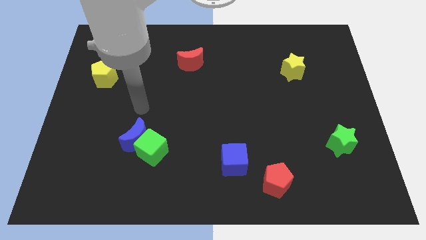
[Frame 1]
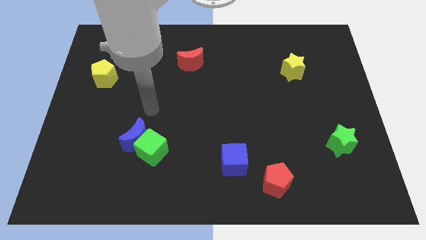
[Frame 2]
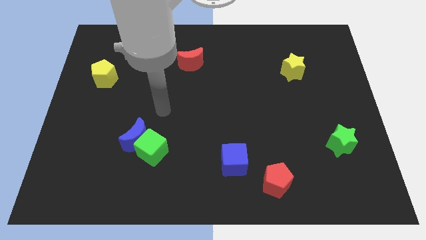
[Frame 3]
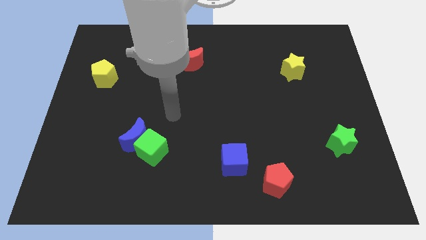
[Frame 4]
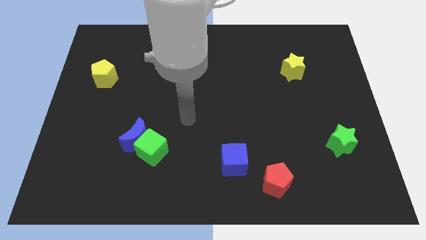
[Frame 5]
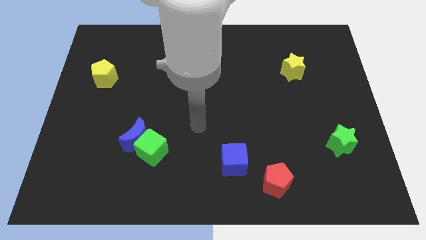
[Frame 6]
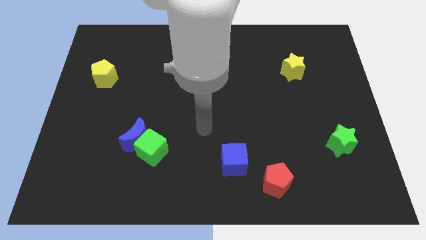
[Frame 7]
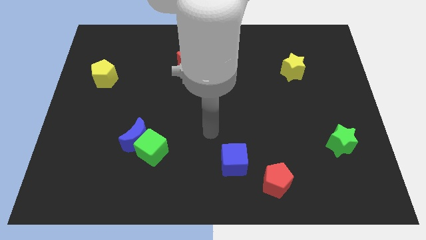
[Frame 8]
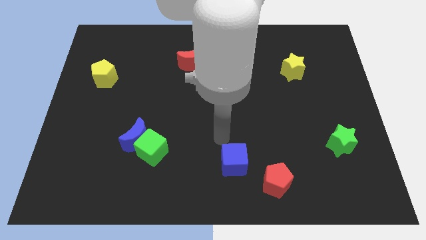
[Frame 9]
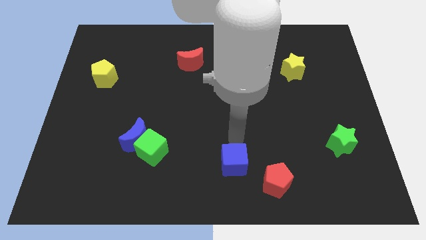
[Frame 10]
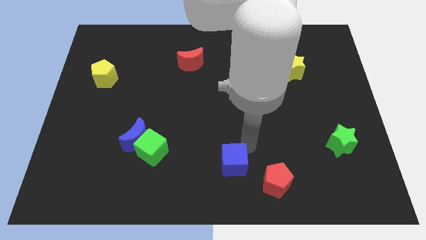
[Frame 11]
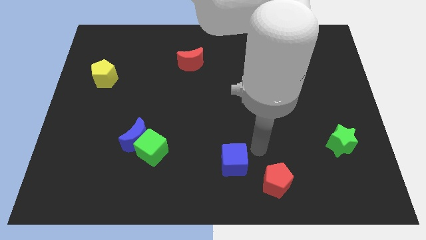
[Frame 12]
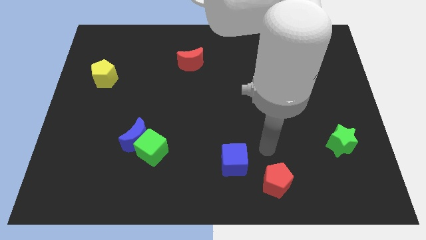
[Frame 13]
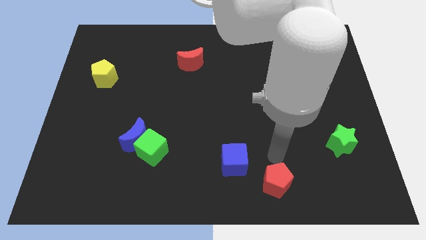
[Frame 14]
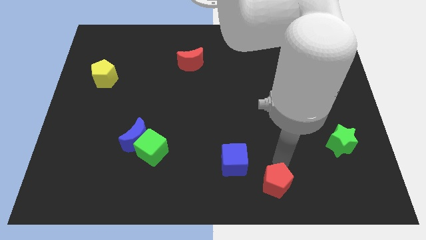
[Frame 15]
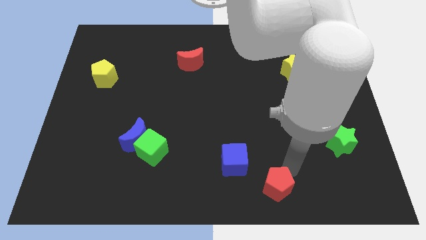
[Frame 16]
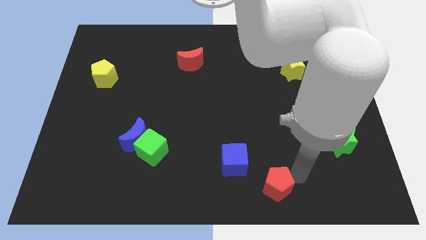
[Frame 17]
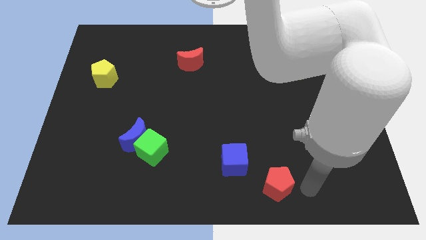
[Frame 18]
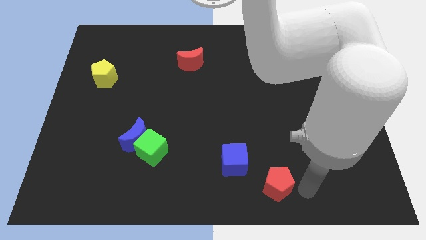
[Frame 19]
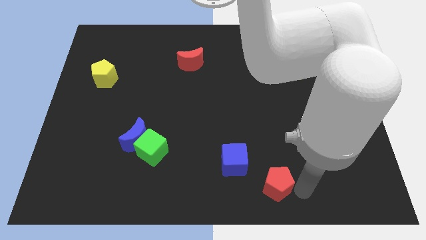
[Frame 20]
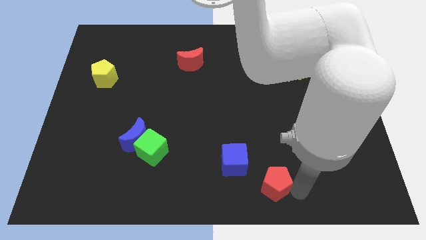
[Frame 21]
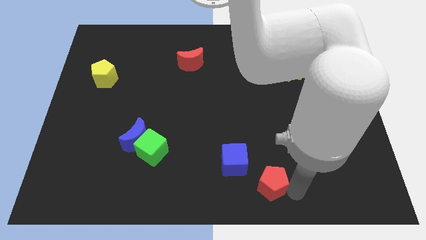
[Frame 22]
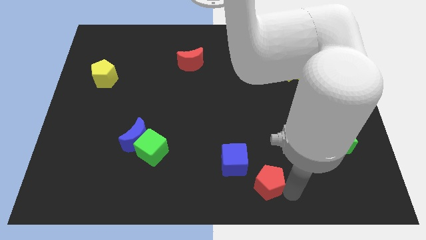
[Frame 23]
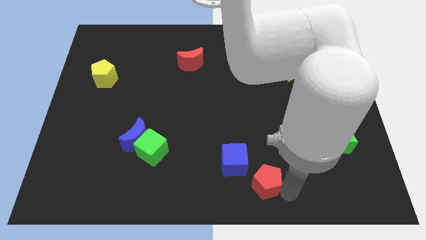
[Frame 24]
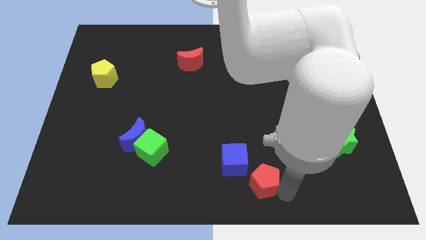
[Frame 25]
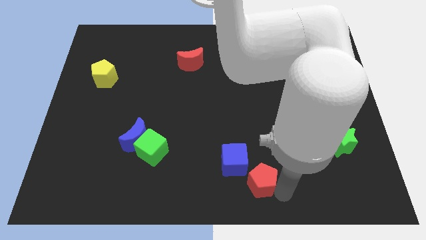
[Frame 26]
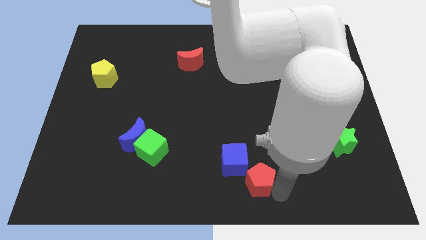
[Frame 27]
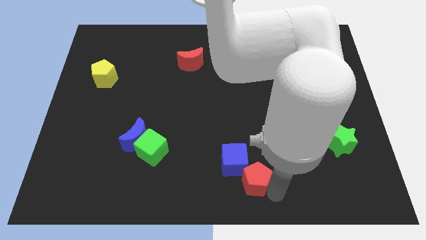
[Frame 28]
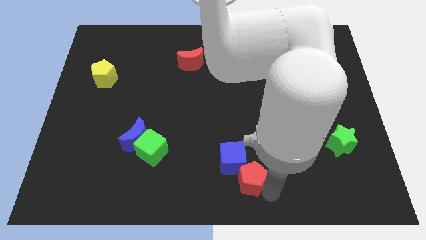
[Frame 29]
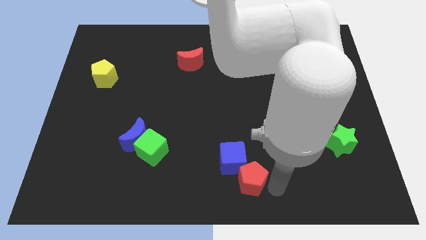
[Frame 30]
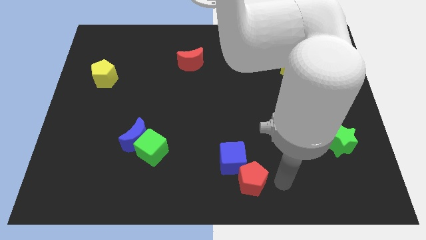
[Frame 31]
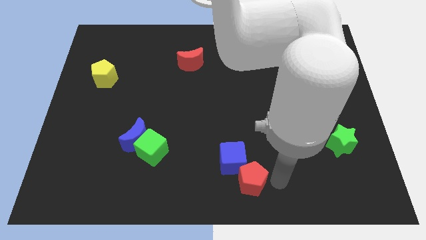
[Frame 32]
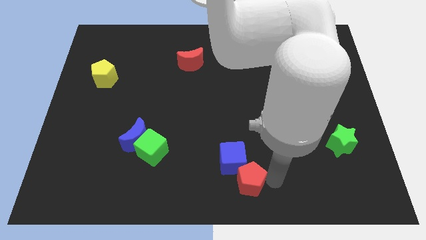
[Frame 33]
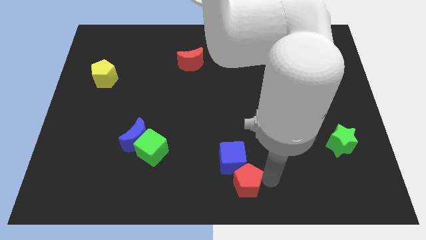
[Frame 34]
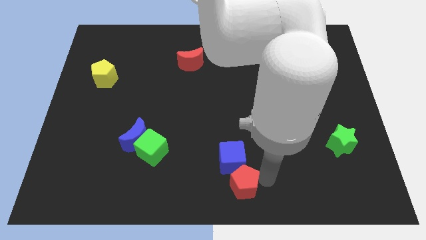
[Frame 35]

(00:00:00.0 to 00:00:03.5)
slide the red pentagon slightly to the left

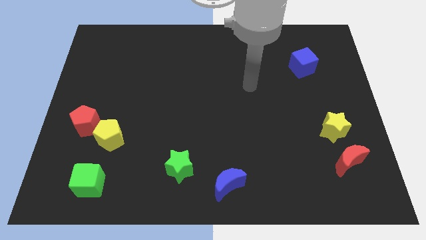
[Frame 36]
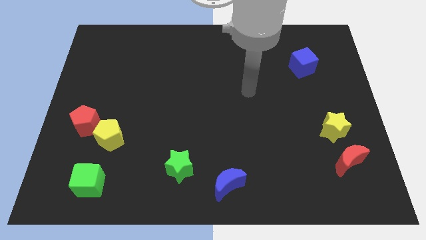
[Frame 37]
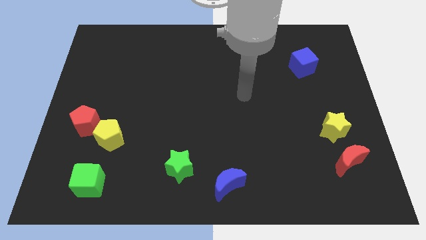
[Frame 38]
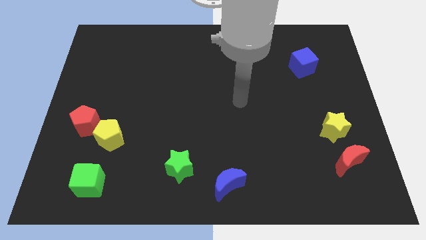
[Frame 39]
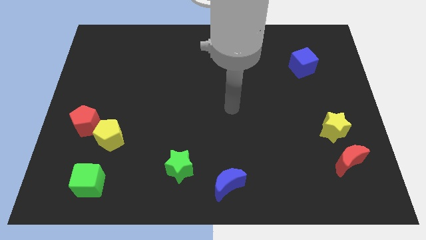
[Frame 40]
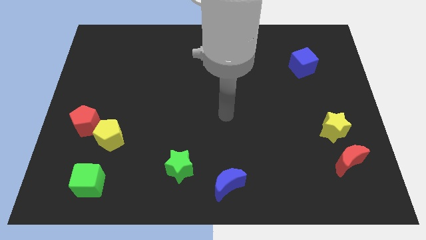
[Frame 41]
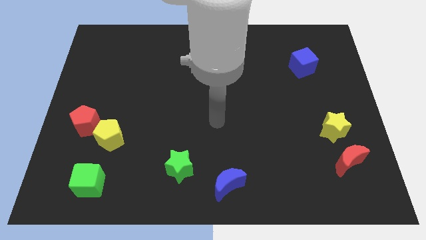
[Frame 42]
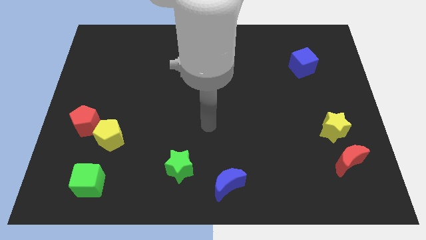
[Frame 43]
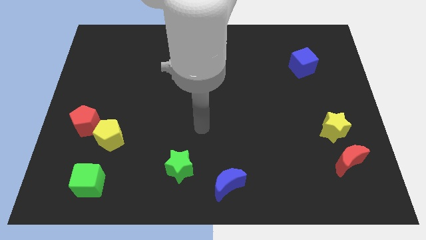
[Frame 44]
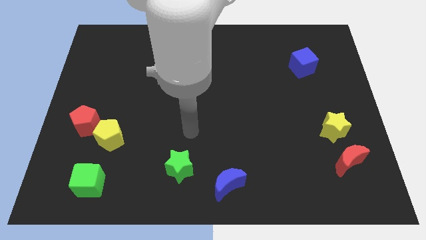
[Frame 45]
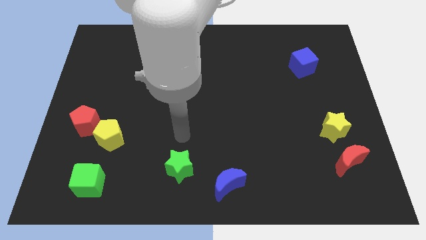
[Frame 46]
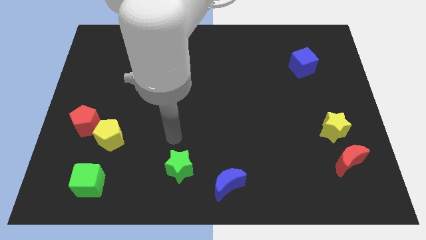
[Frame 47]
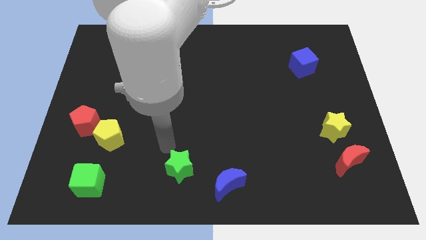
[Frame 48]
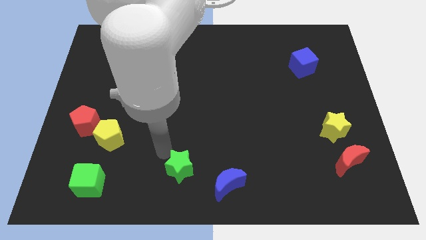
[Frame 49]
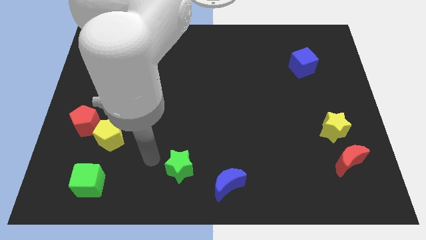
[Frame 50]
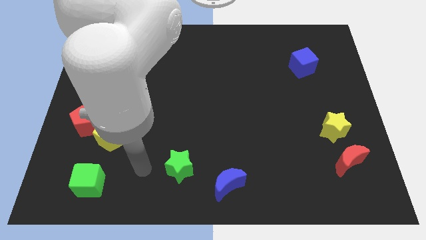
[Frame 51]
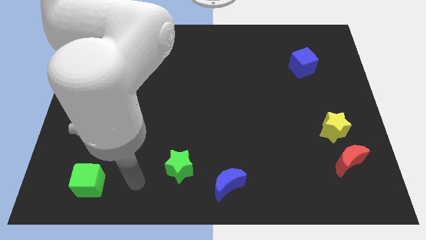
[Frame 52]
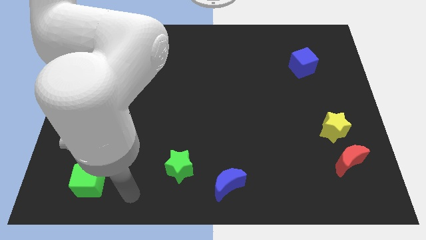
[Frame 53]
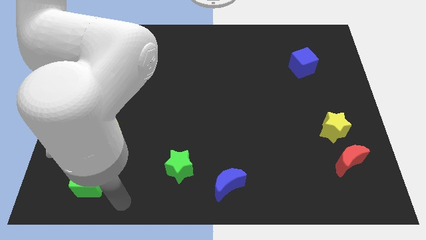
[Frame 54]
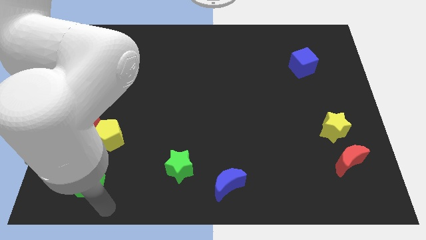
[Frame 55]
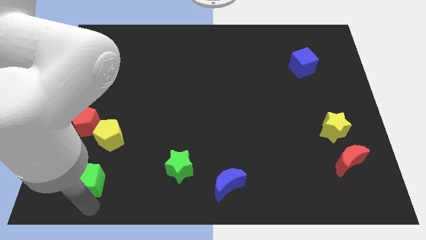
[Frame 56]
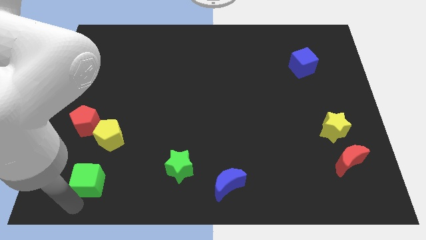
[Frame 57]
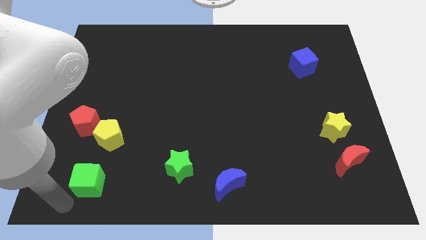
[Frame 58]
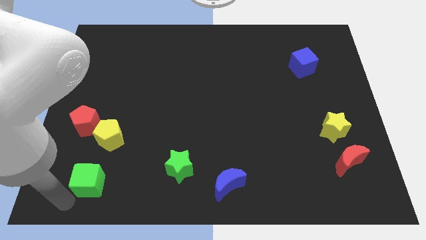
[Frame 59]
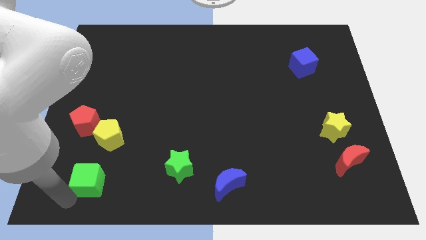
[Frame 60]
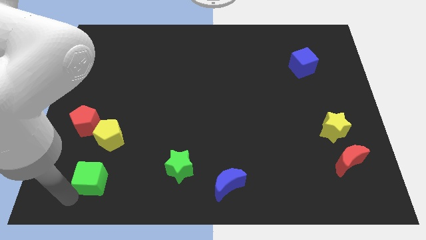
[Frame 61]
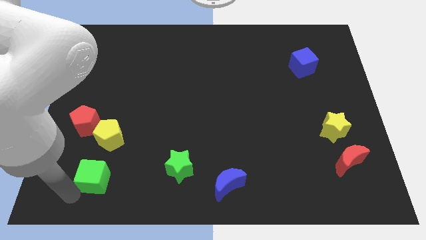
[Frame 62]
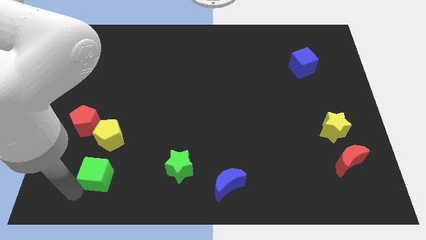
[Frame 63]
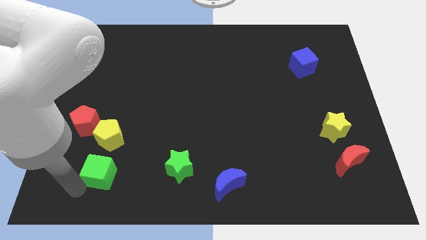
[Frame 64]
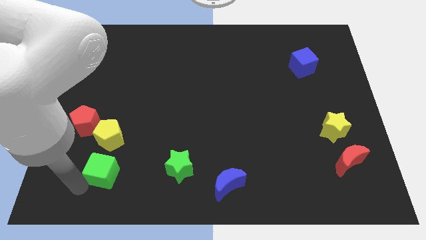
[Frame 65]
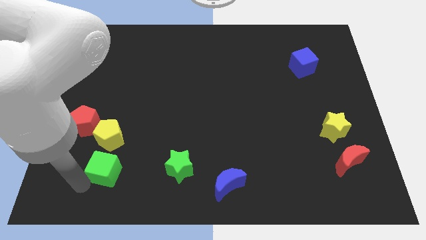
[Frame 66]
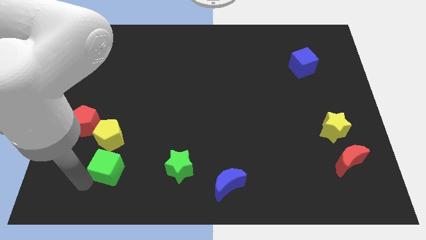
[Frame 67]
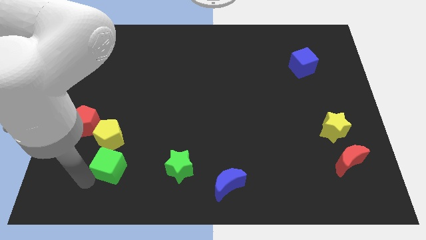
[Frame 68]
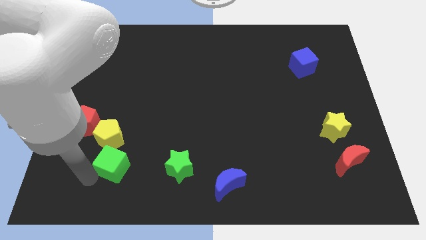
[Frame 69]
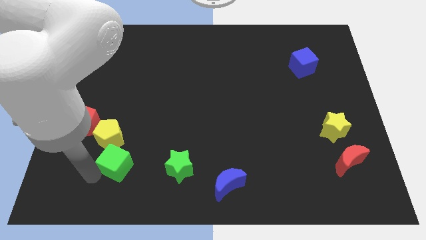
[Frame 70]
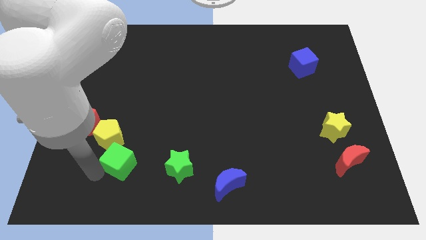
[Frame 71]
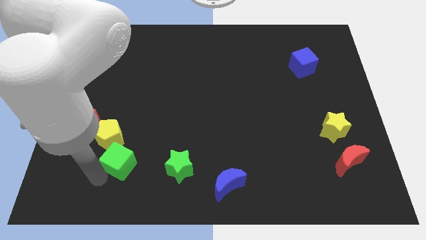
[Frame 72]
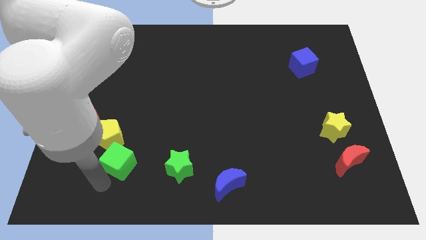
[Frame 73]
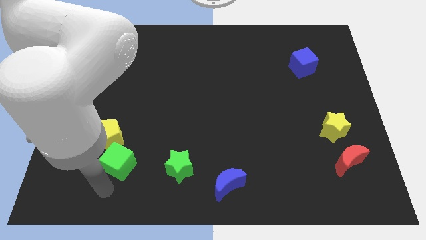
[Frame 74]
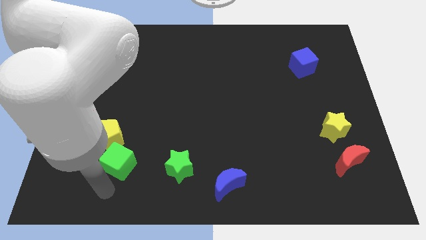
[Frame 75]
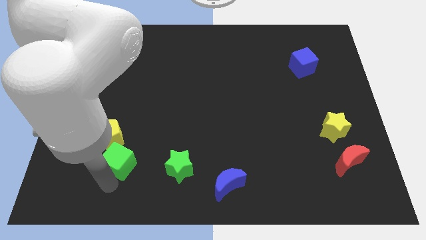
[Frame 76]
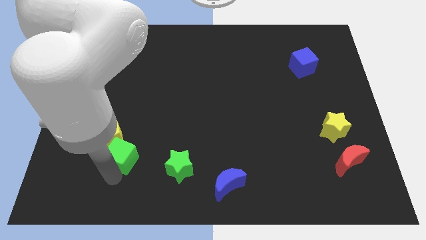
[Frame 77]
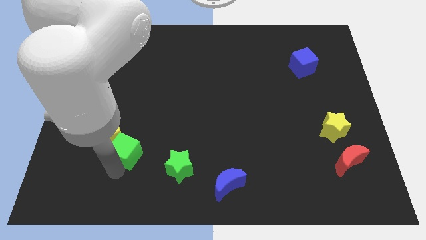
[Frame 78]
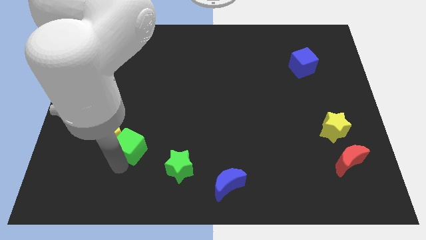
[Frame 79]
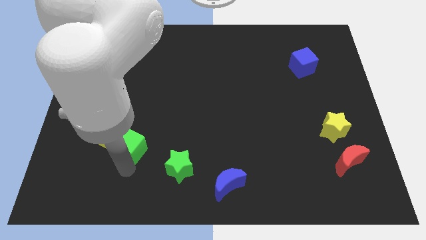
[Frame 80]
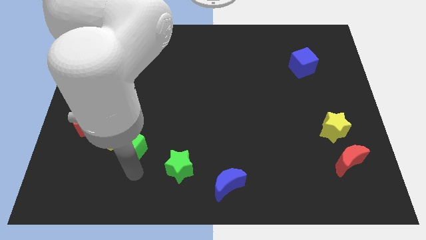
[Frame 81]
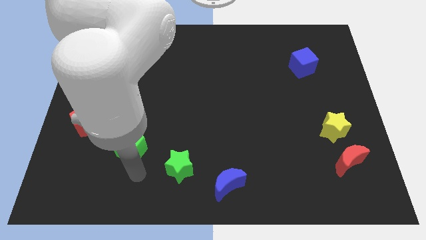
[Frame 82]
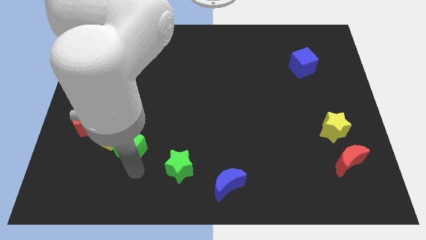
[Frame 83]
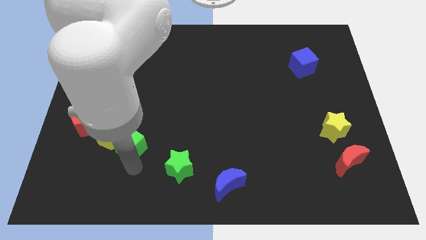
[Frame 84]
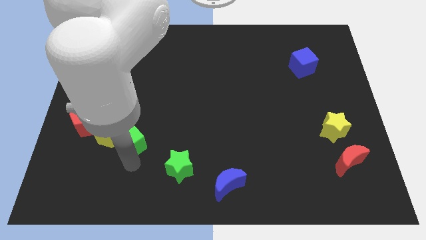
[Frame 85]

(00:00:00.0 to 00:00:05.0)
slide the green cube up slightly
